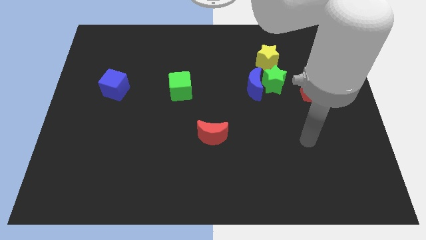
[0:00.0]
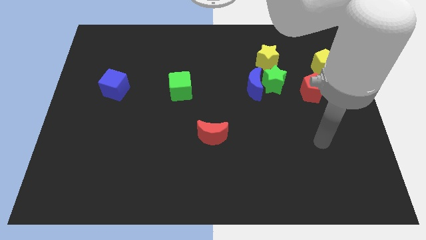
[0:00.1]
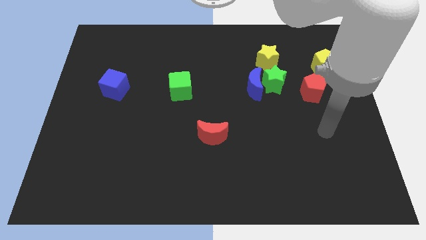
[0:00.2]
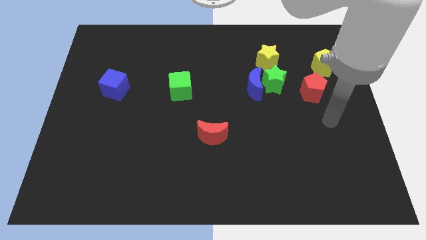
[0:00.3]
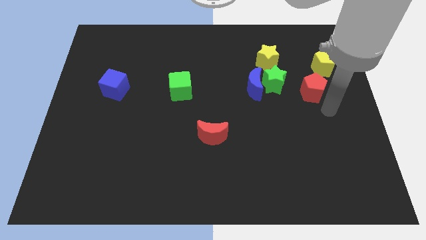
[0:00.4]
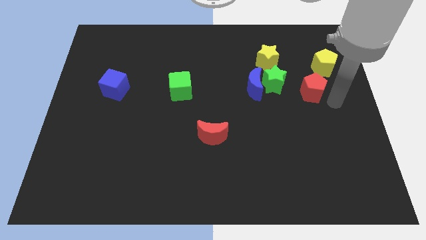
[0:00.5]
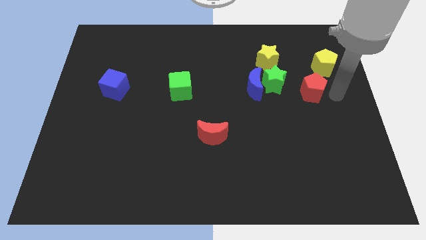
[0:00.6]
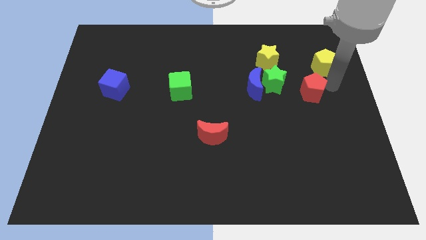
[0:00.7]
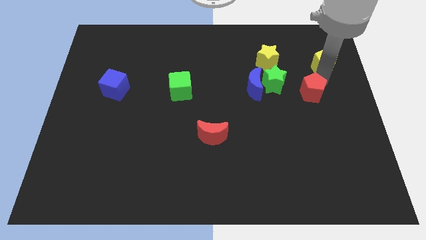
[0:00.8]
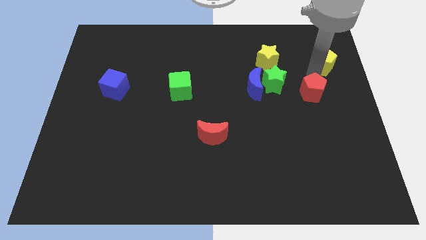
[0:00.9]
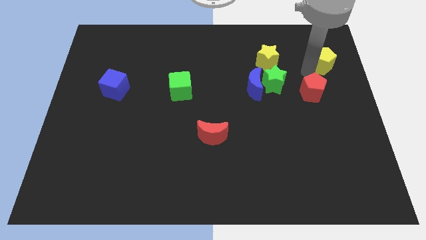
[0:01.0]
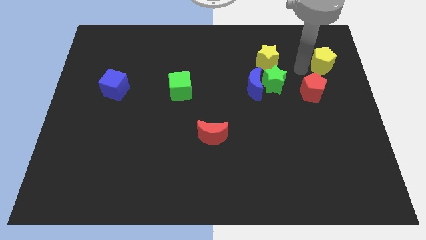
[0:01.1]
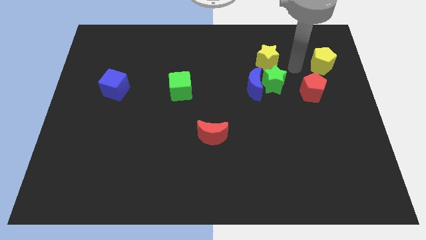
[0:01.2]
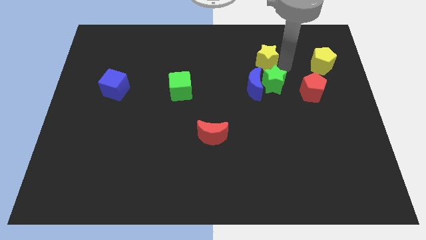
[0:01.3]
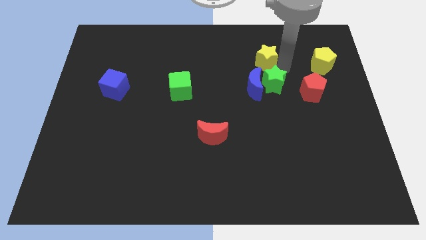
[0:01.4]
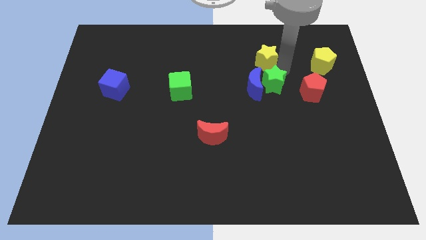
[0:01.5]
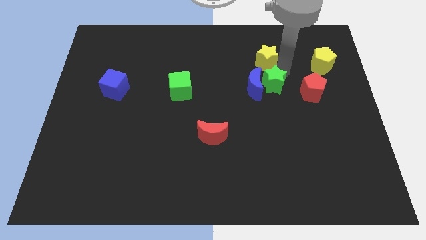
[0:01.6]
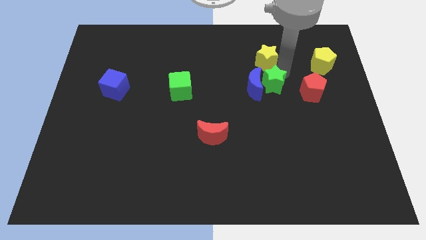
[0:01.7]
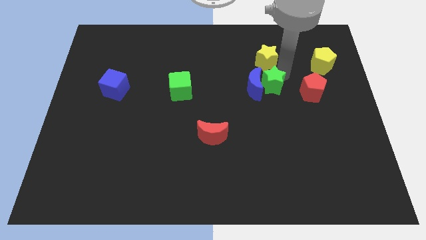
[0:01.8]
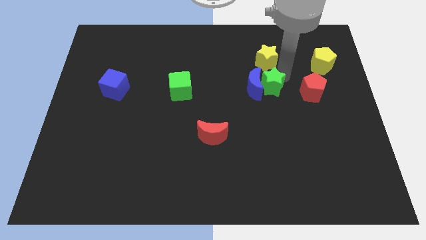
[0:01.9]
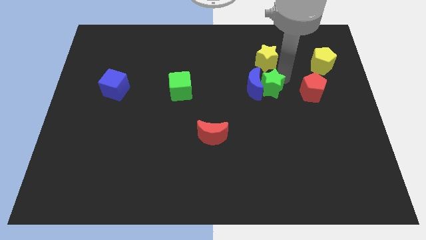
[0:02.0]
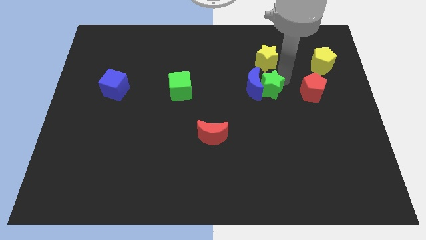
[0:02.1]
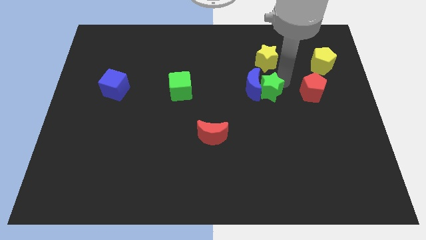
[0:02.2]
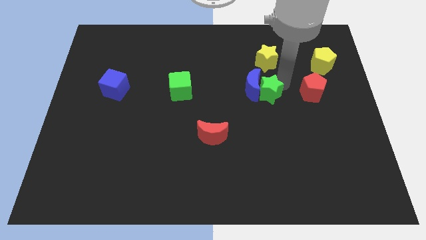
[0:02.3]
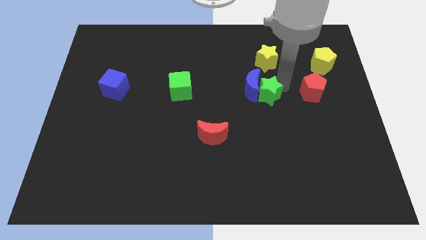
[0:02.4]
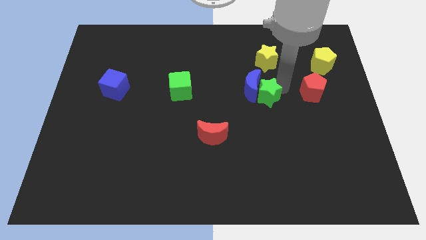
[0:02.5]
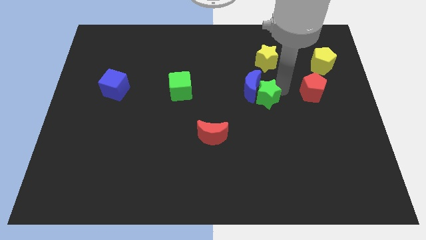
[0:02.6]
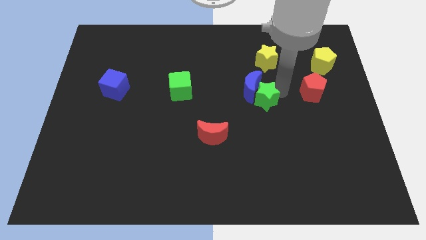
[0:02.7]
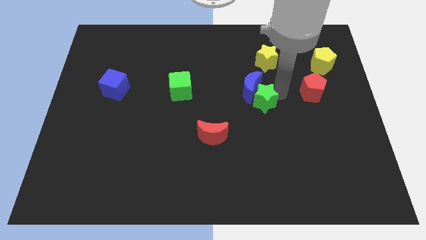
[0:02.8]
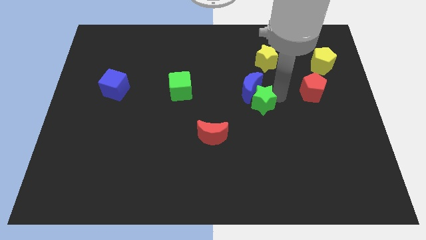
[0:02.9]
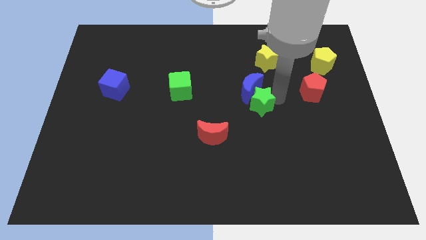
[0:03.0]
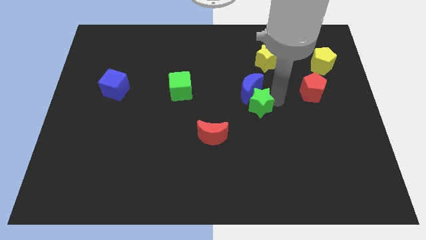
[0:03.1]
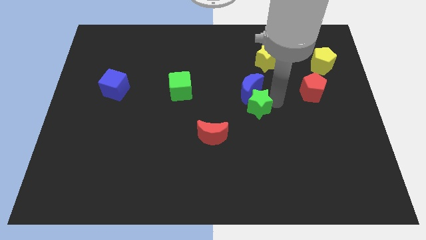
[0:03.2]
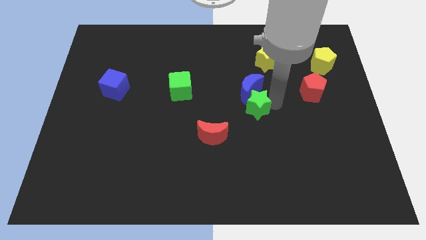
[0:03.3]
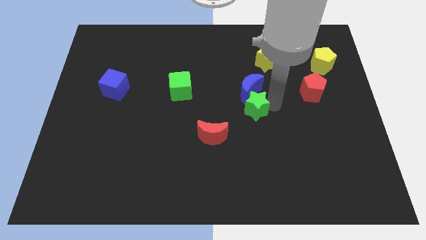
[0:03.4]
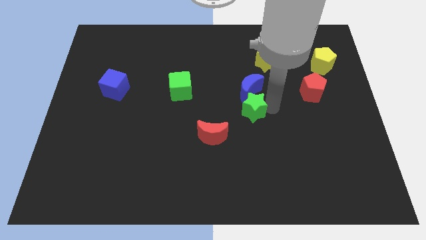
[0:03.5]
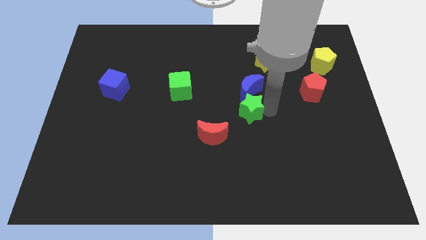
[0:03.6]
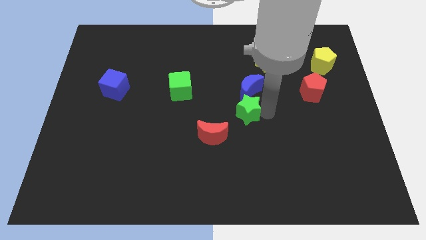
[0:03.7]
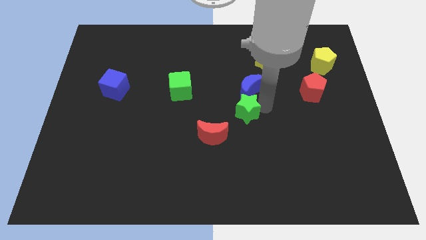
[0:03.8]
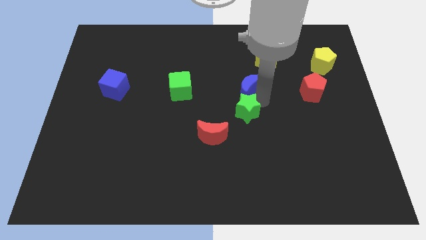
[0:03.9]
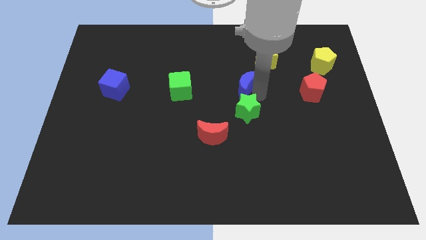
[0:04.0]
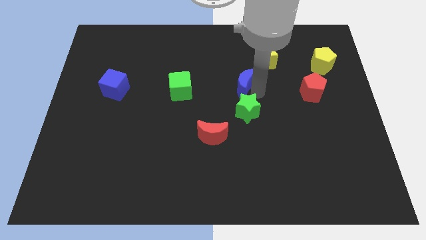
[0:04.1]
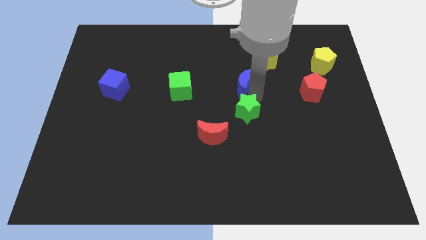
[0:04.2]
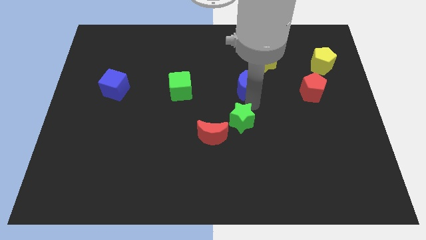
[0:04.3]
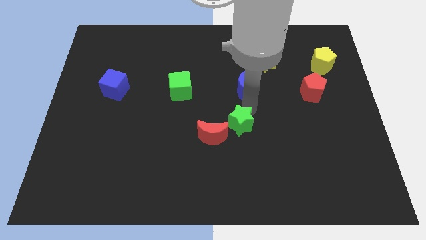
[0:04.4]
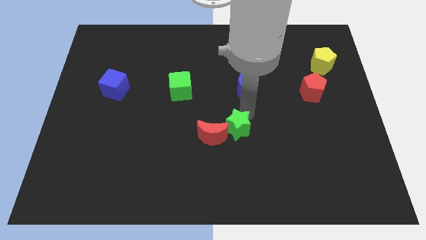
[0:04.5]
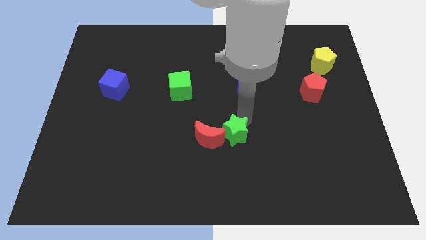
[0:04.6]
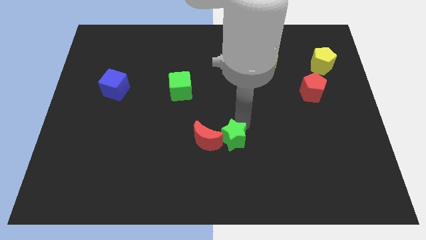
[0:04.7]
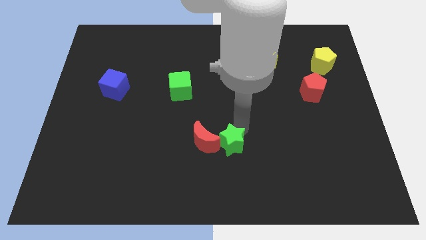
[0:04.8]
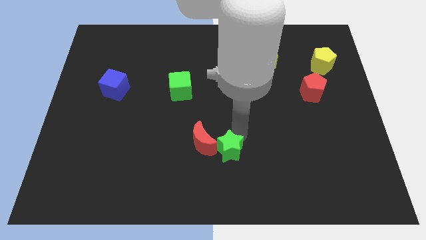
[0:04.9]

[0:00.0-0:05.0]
move the green star down and to the left diagonally

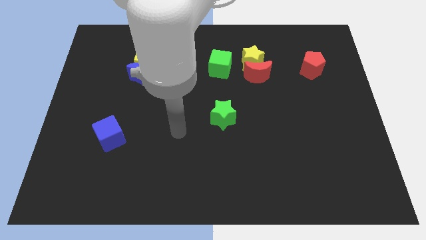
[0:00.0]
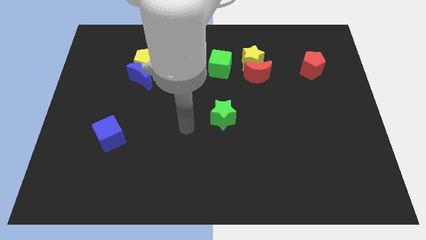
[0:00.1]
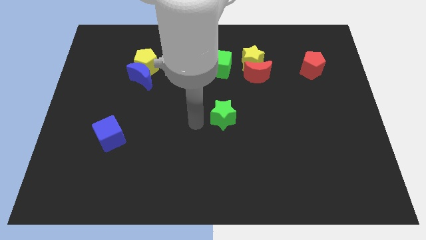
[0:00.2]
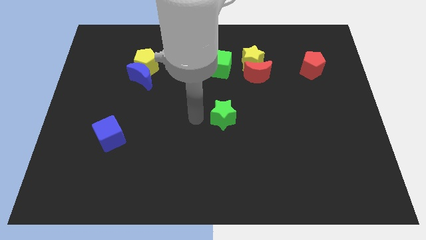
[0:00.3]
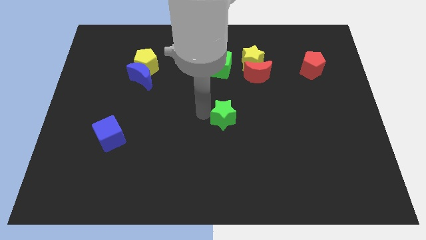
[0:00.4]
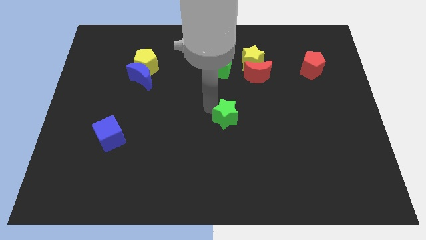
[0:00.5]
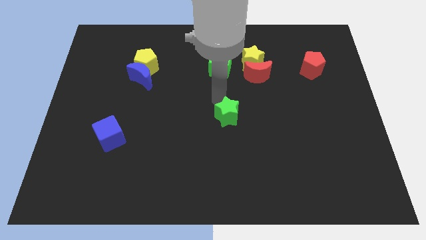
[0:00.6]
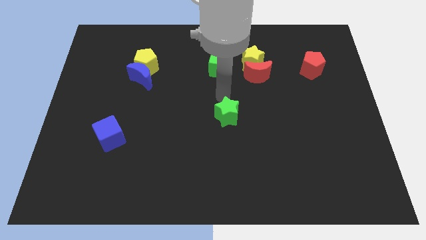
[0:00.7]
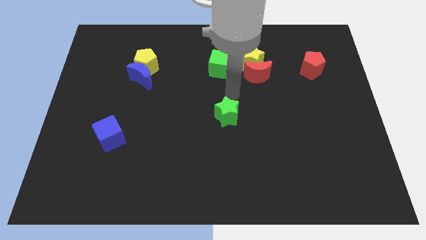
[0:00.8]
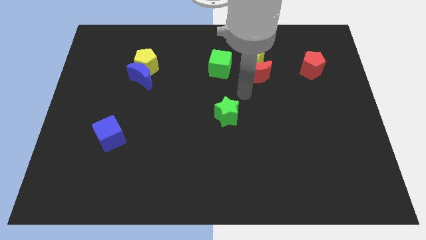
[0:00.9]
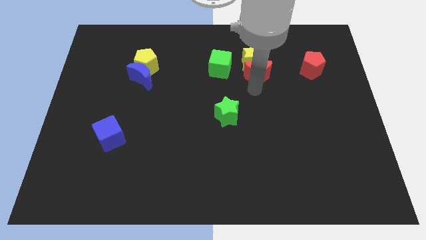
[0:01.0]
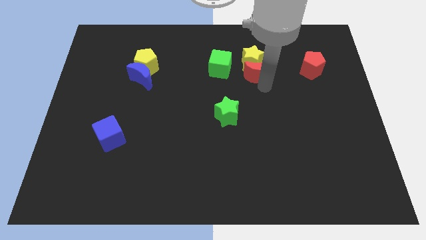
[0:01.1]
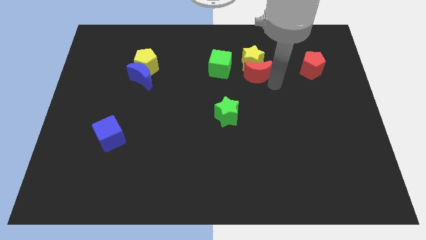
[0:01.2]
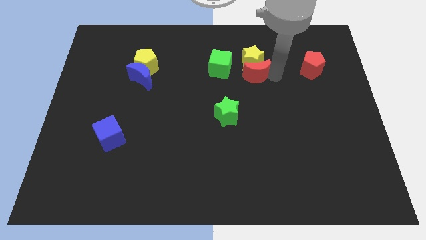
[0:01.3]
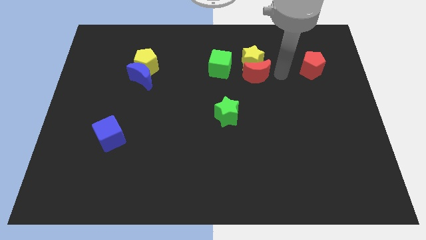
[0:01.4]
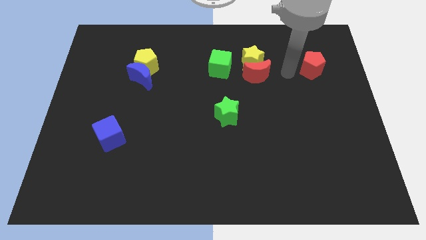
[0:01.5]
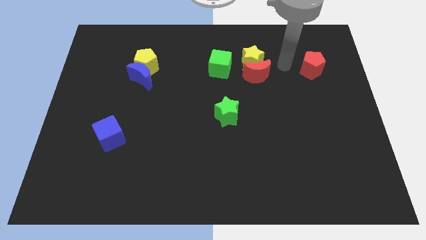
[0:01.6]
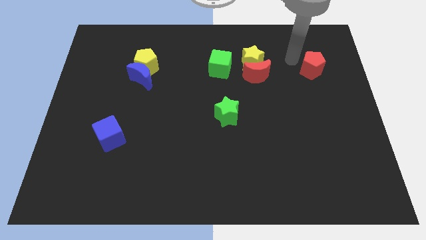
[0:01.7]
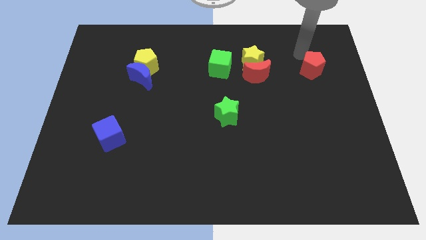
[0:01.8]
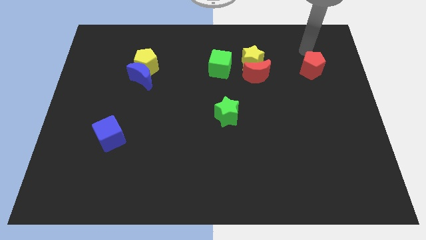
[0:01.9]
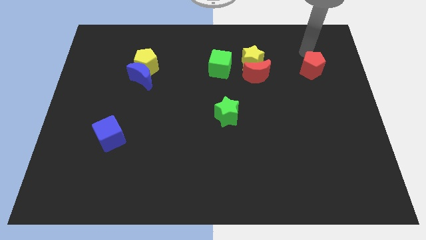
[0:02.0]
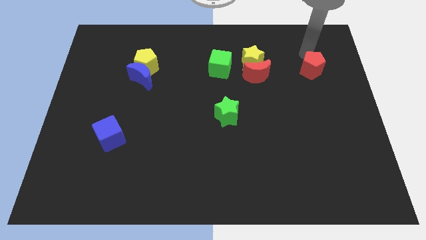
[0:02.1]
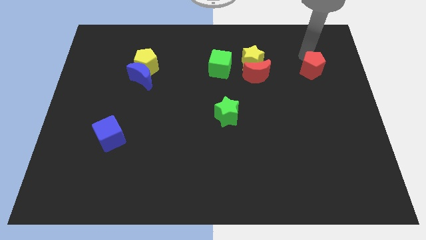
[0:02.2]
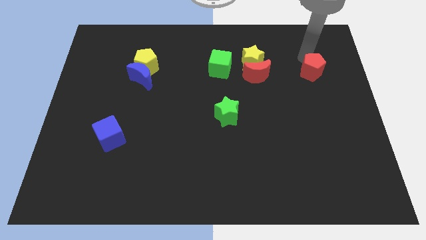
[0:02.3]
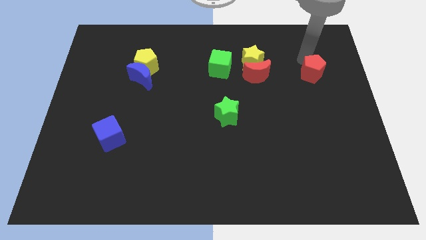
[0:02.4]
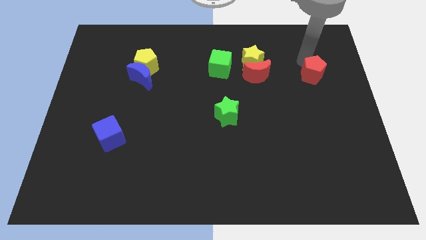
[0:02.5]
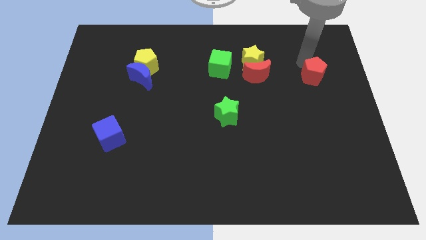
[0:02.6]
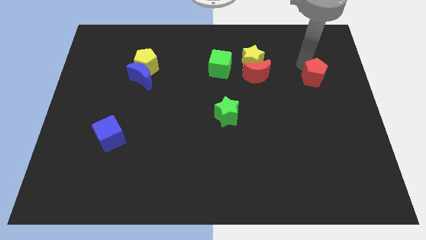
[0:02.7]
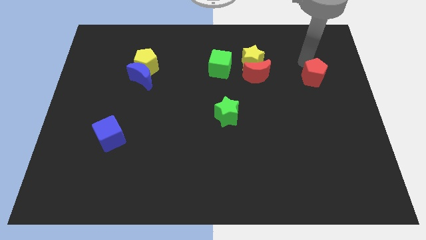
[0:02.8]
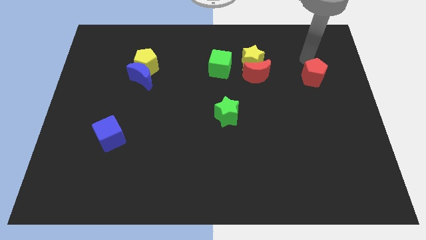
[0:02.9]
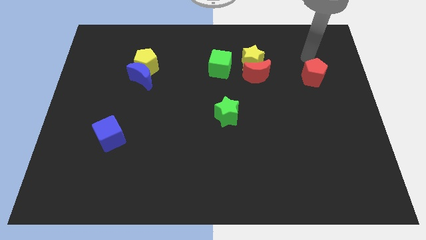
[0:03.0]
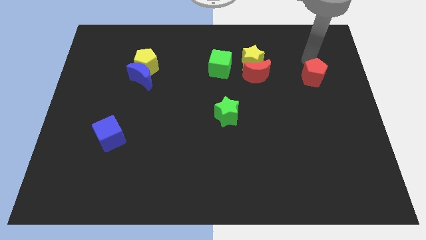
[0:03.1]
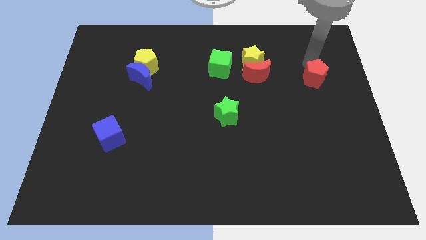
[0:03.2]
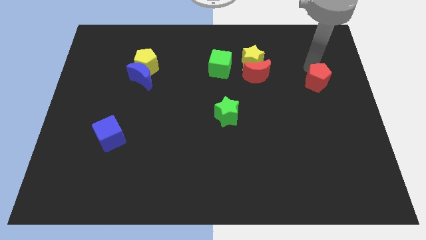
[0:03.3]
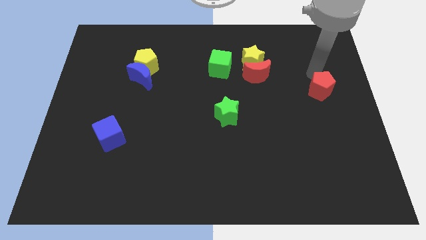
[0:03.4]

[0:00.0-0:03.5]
move the red pentagon downwards slightly
